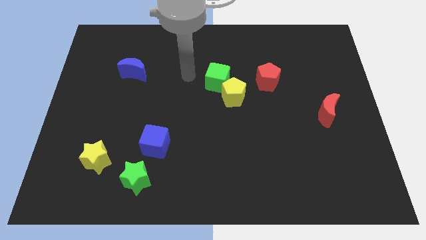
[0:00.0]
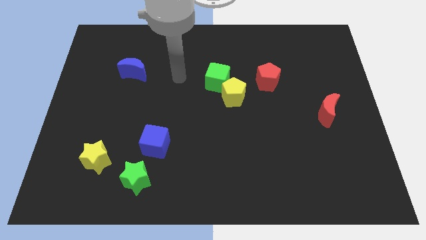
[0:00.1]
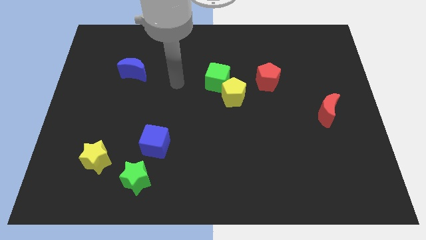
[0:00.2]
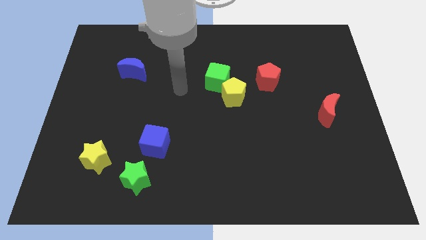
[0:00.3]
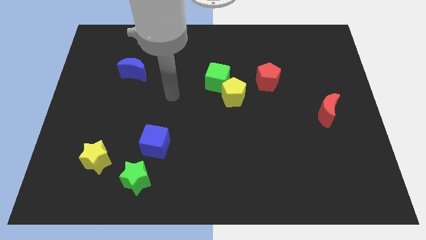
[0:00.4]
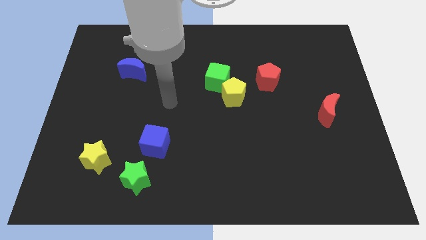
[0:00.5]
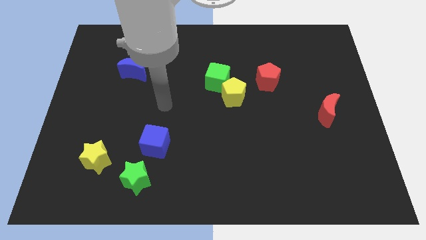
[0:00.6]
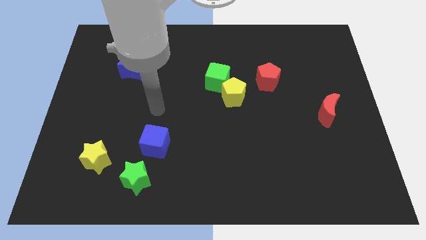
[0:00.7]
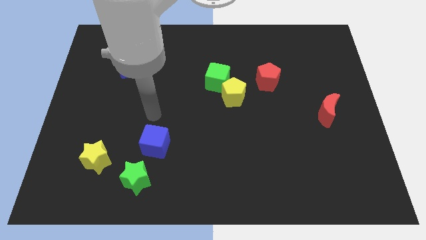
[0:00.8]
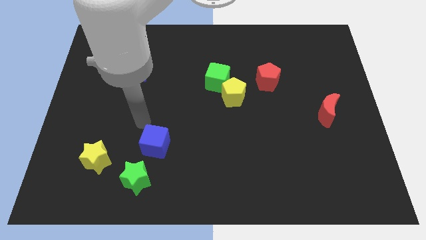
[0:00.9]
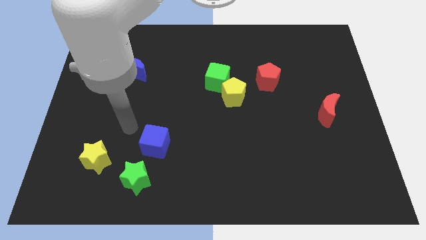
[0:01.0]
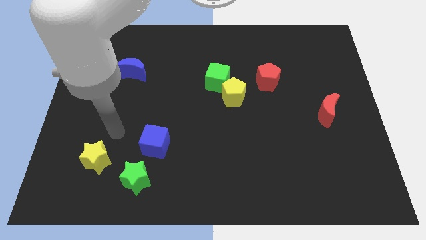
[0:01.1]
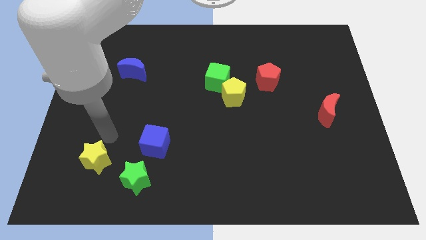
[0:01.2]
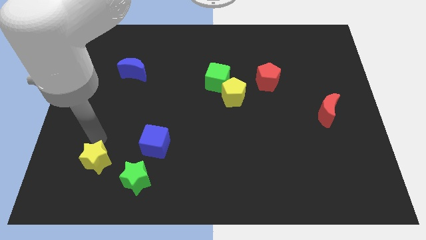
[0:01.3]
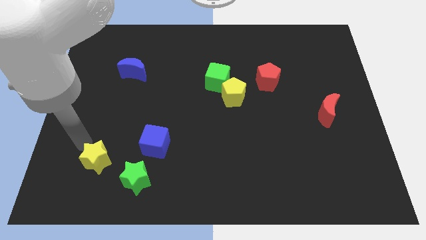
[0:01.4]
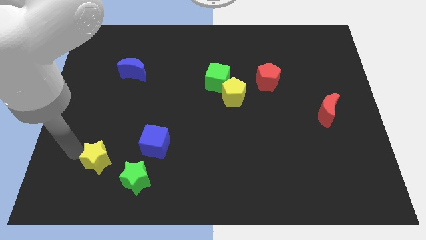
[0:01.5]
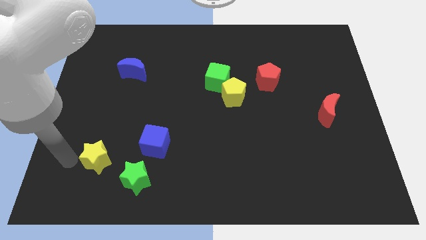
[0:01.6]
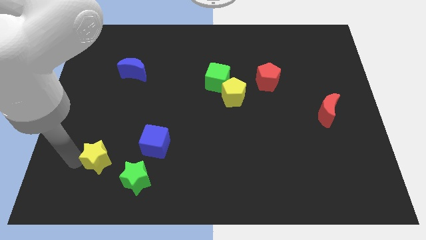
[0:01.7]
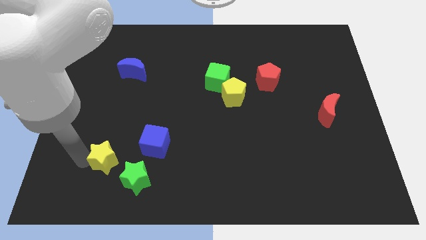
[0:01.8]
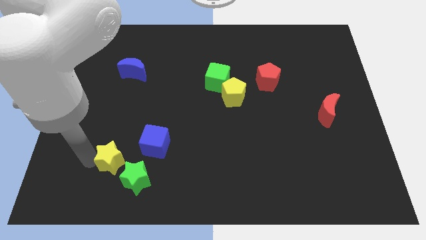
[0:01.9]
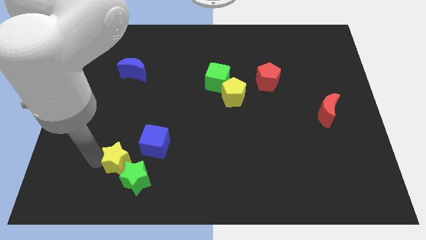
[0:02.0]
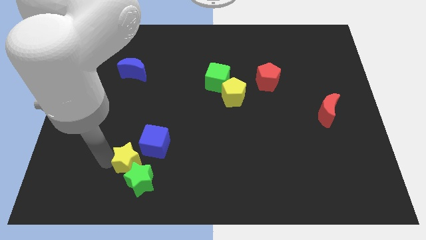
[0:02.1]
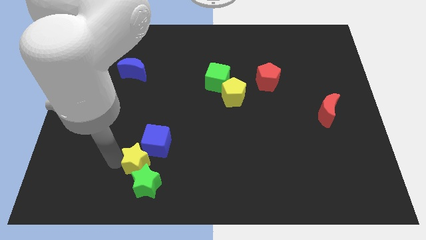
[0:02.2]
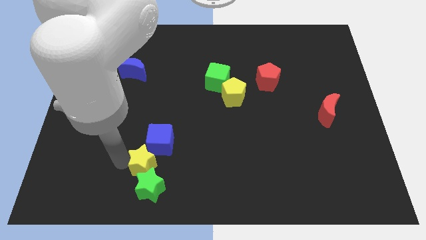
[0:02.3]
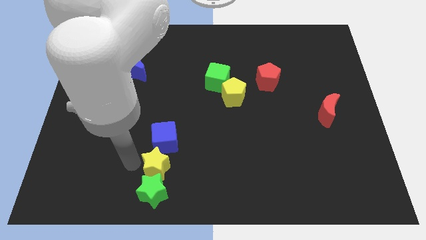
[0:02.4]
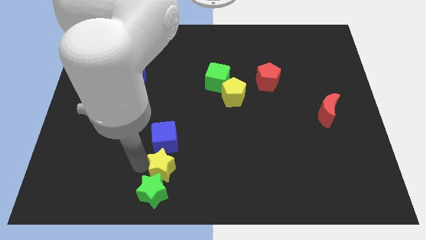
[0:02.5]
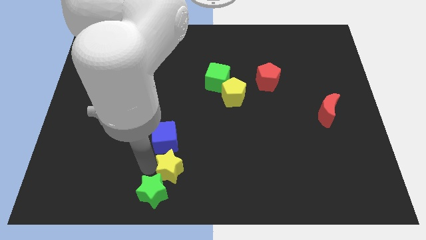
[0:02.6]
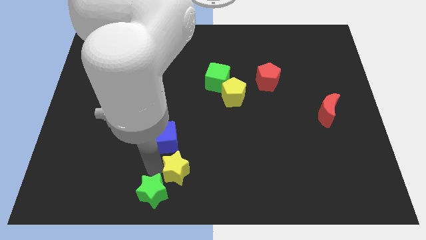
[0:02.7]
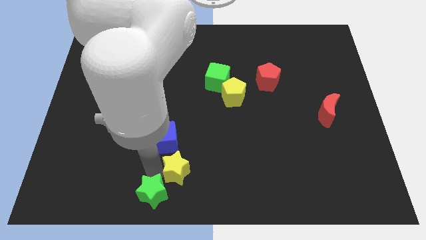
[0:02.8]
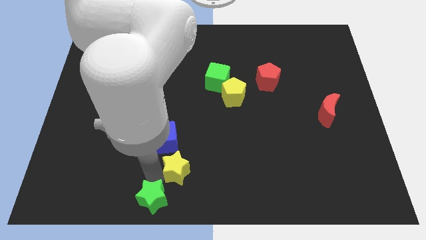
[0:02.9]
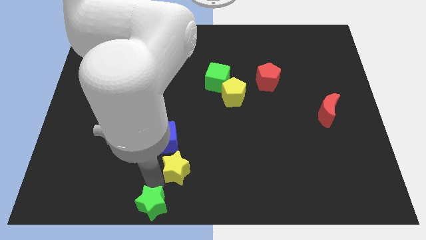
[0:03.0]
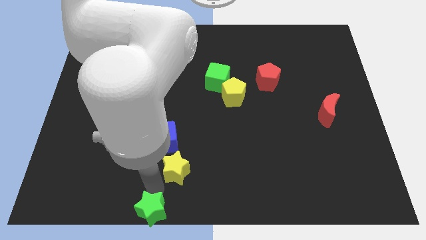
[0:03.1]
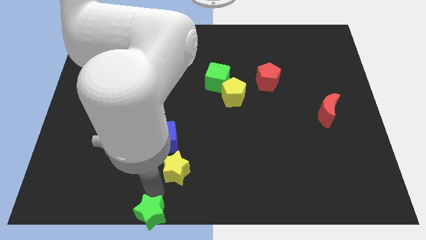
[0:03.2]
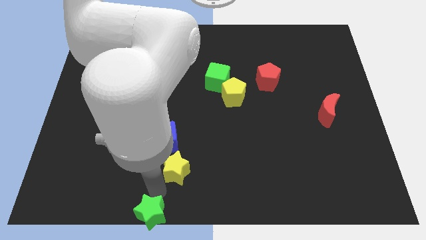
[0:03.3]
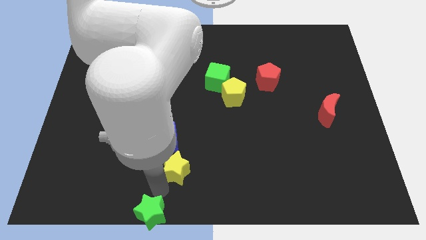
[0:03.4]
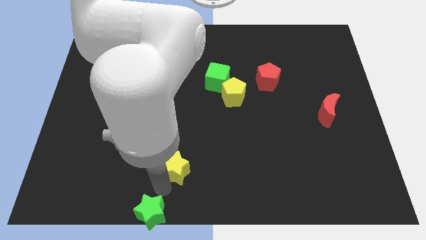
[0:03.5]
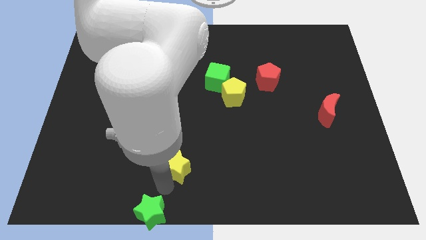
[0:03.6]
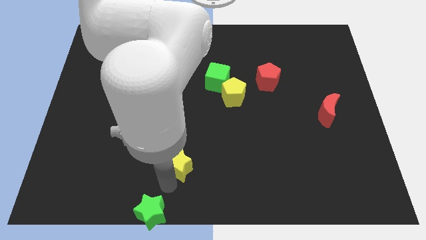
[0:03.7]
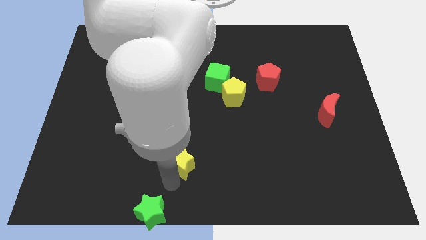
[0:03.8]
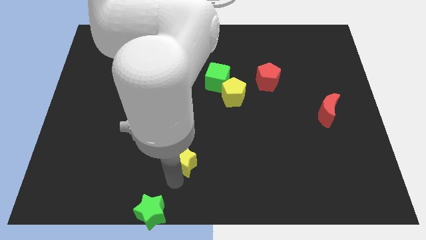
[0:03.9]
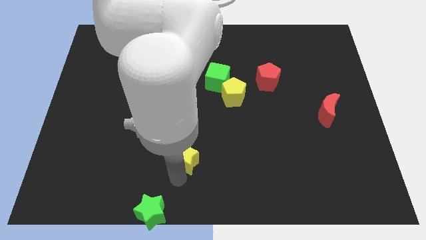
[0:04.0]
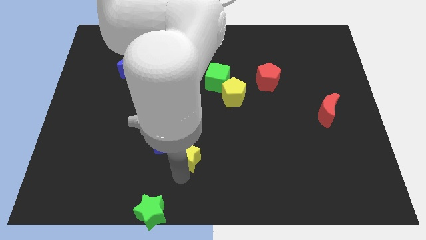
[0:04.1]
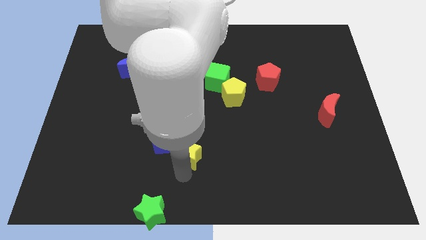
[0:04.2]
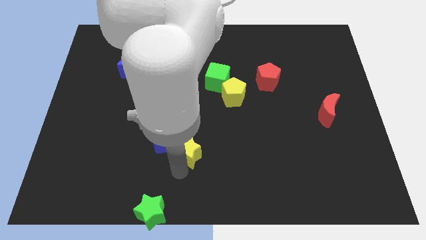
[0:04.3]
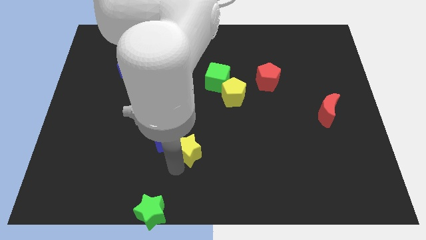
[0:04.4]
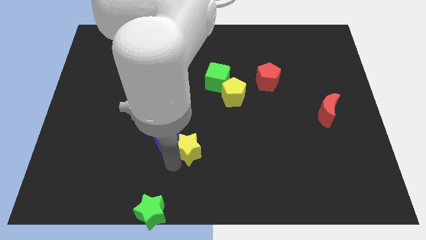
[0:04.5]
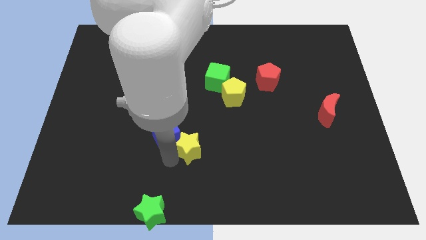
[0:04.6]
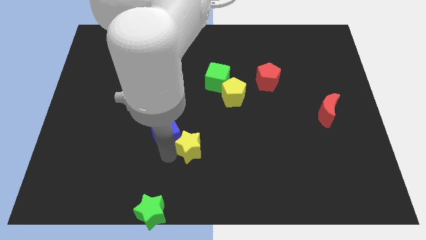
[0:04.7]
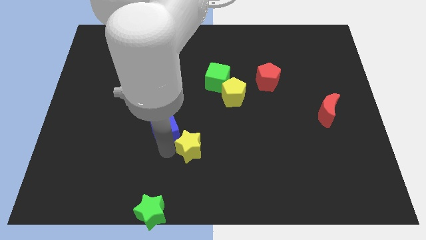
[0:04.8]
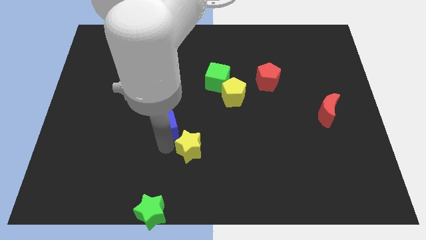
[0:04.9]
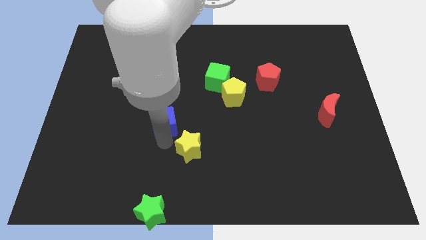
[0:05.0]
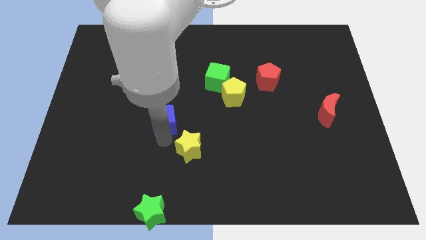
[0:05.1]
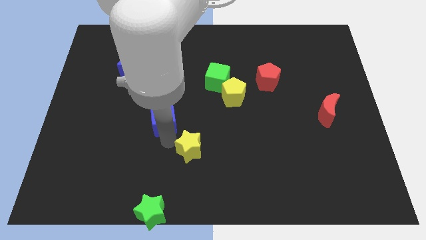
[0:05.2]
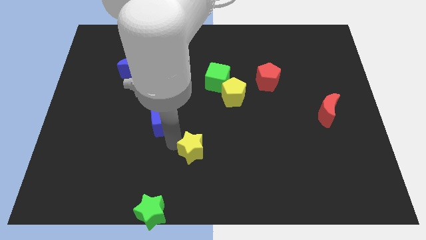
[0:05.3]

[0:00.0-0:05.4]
push the yellow star to the right

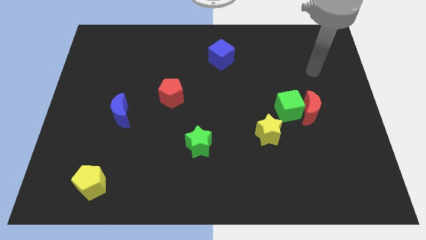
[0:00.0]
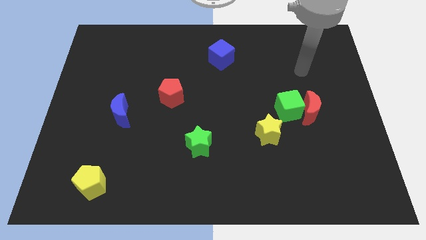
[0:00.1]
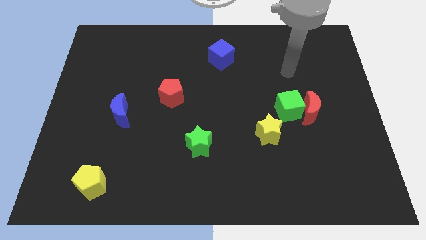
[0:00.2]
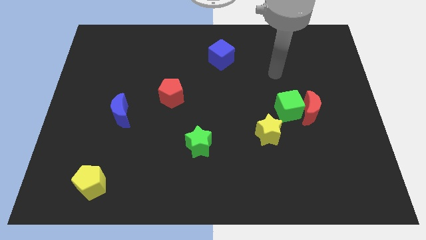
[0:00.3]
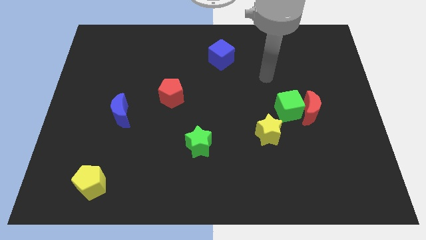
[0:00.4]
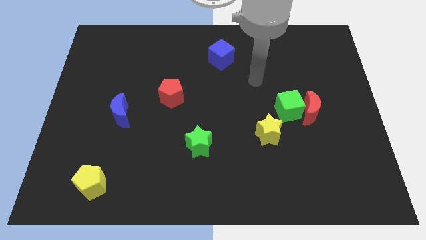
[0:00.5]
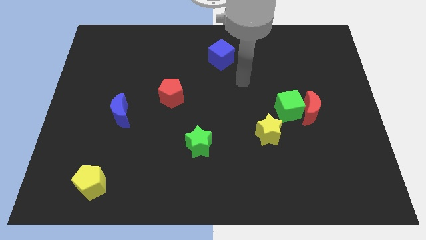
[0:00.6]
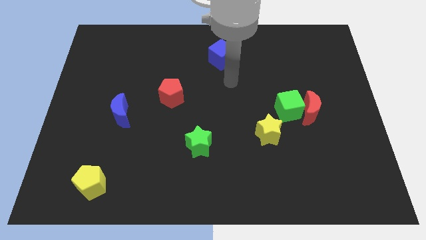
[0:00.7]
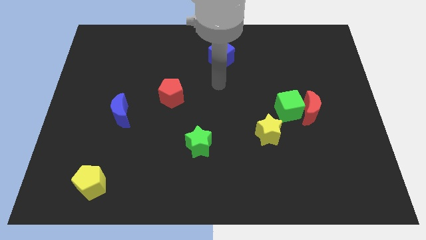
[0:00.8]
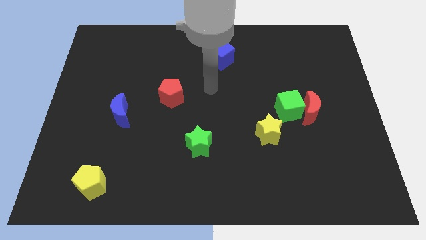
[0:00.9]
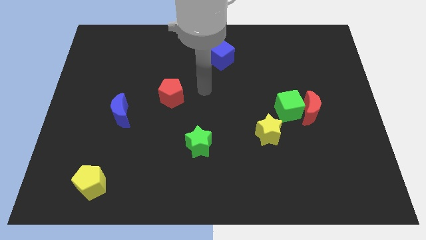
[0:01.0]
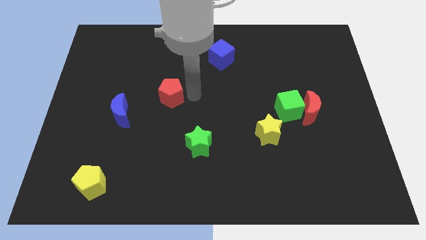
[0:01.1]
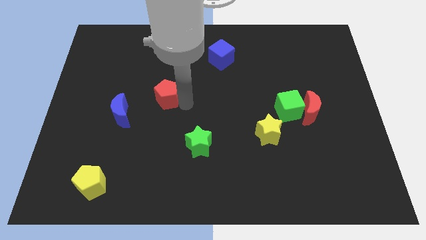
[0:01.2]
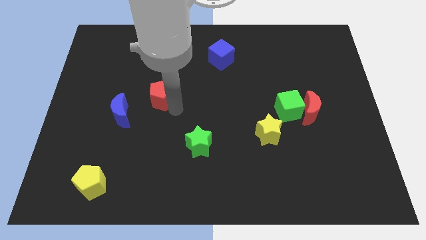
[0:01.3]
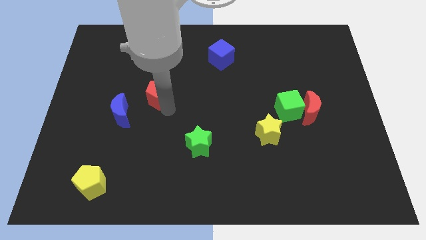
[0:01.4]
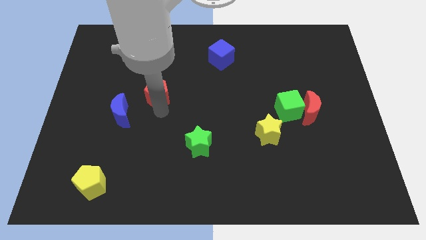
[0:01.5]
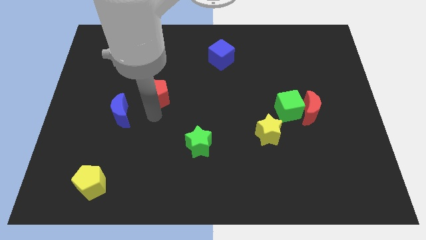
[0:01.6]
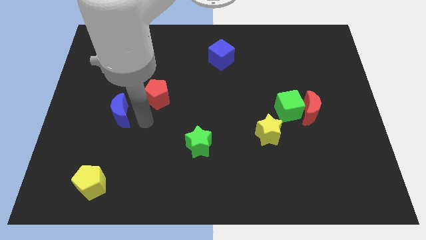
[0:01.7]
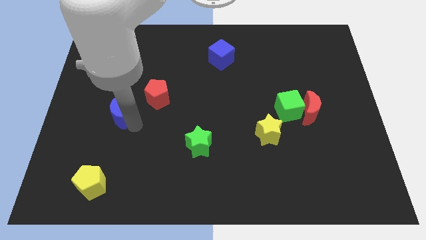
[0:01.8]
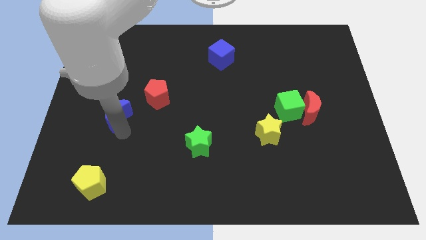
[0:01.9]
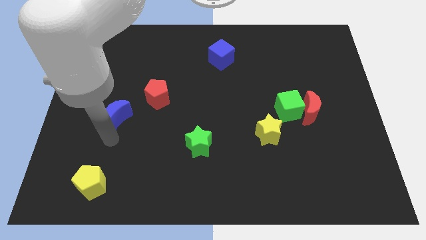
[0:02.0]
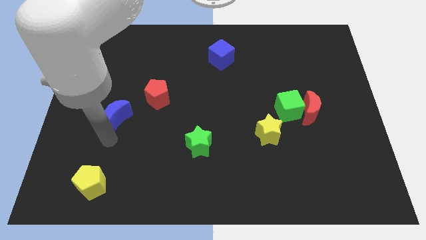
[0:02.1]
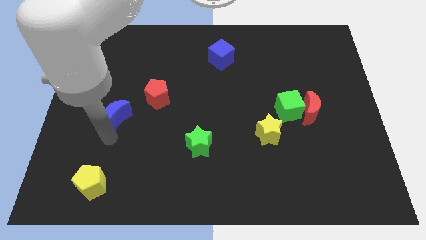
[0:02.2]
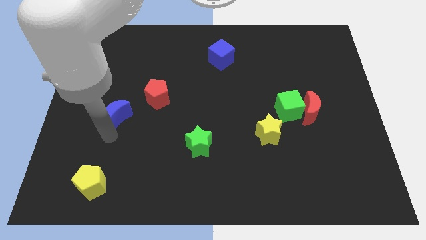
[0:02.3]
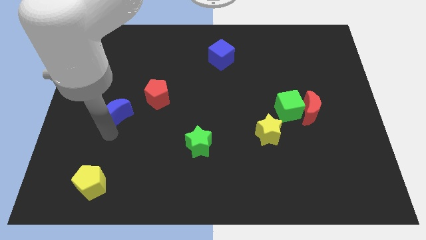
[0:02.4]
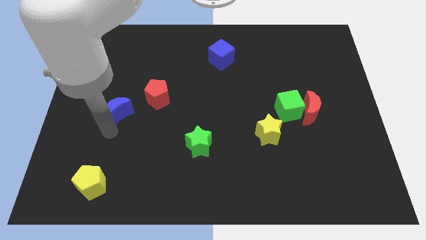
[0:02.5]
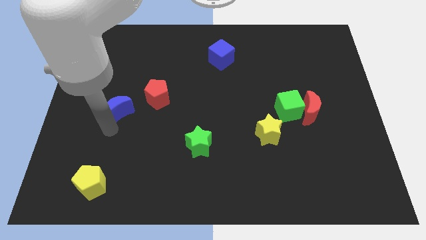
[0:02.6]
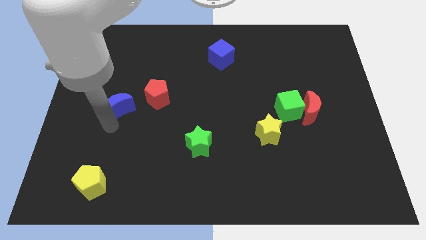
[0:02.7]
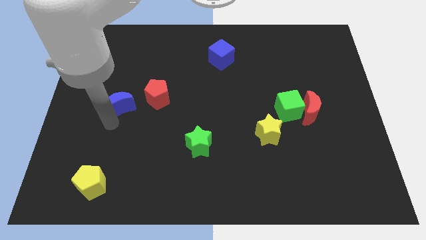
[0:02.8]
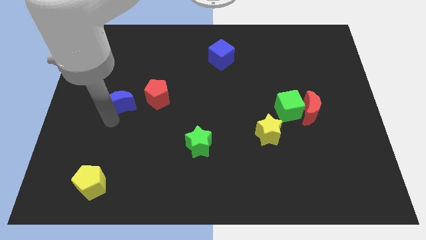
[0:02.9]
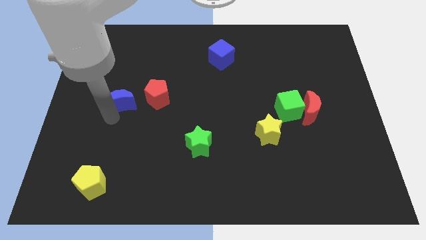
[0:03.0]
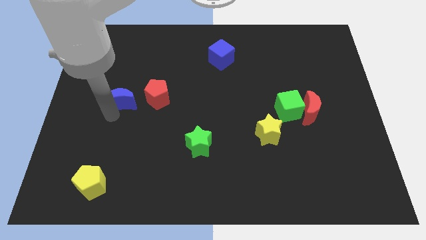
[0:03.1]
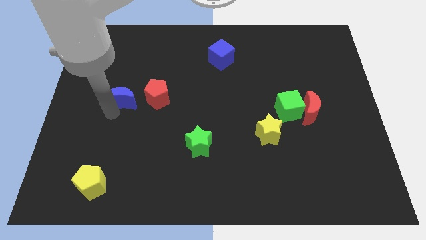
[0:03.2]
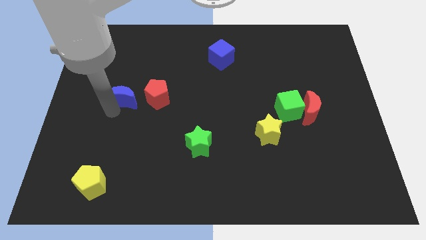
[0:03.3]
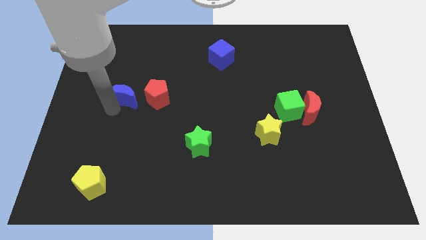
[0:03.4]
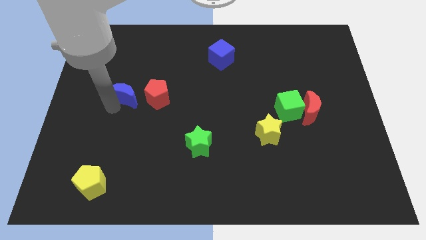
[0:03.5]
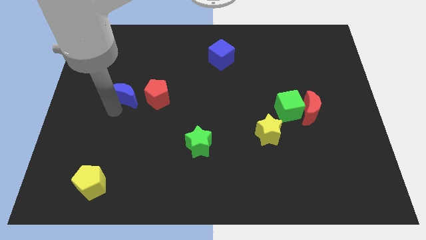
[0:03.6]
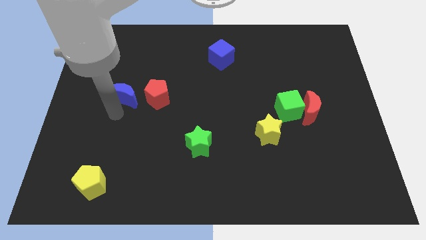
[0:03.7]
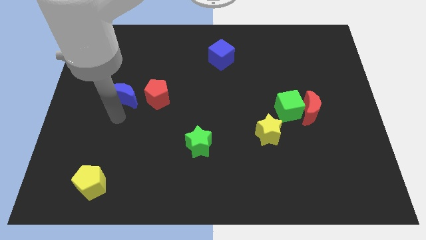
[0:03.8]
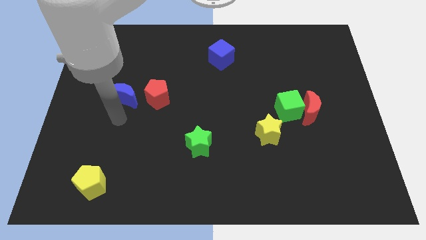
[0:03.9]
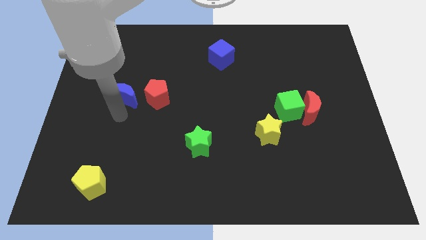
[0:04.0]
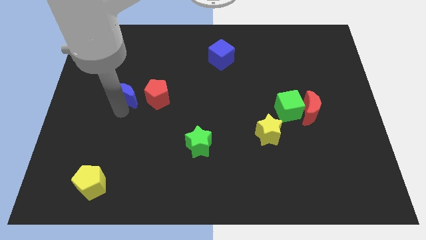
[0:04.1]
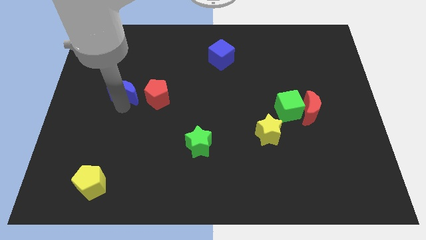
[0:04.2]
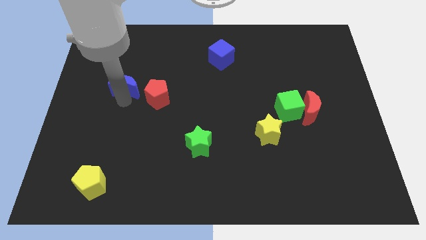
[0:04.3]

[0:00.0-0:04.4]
slide the blue moon upwards a little bit
